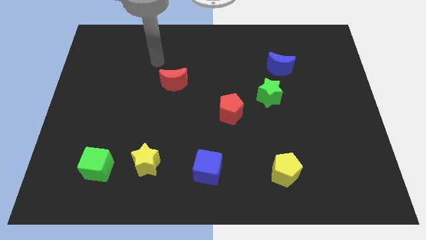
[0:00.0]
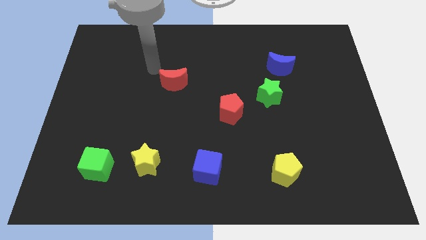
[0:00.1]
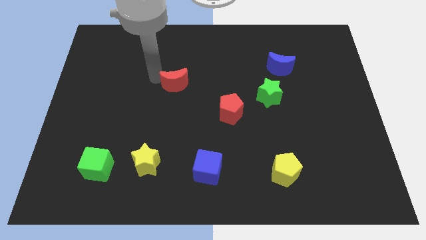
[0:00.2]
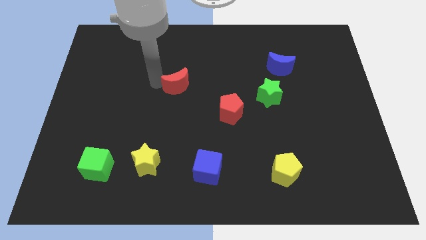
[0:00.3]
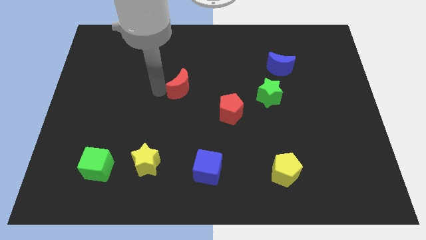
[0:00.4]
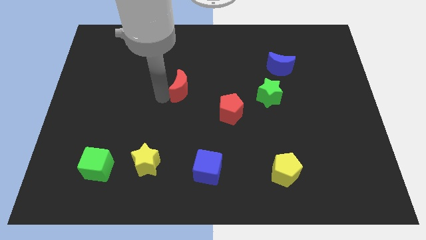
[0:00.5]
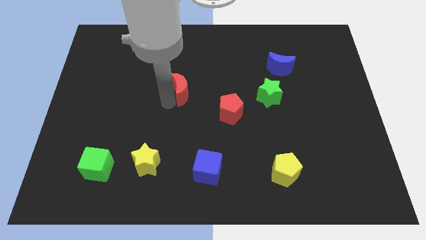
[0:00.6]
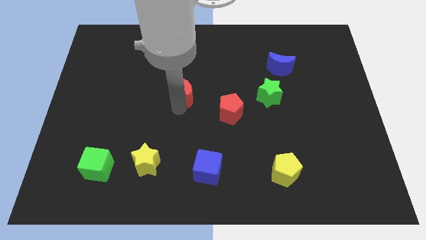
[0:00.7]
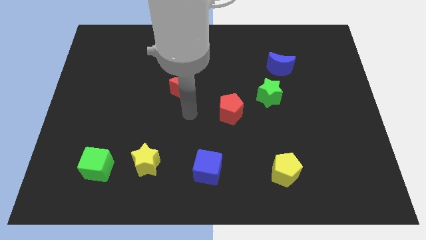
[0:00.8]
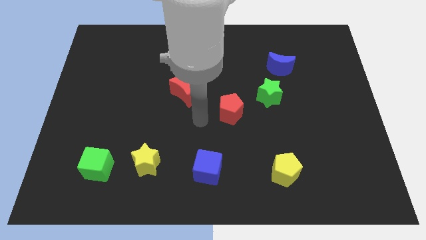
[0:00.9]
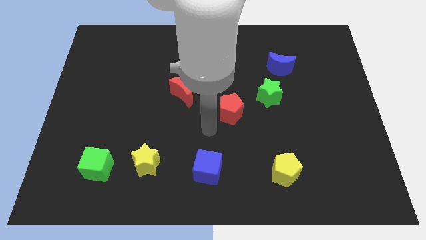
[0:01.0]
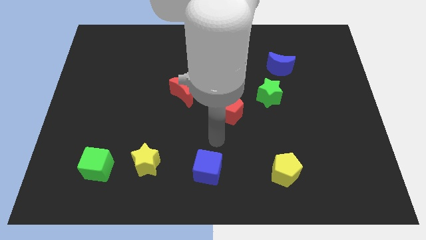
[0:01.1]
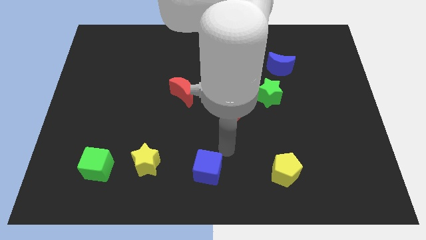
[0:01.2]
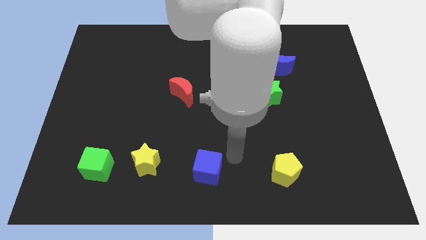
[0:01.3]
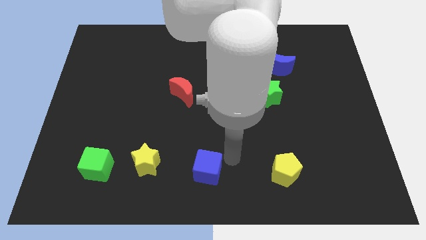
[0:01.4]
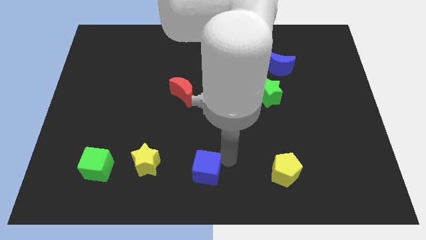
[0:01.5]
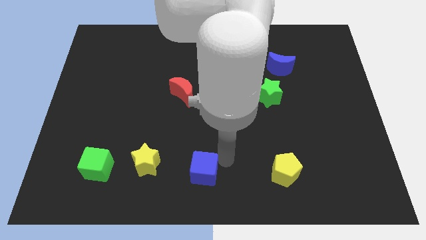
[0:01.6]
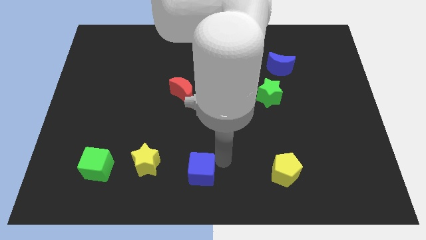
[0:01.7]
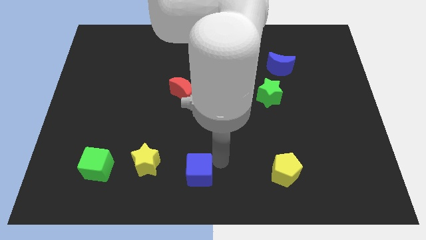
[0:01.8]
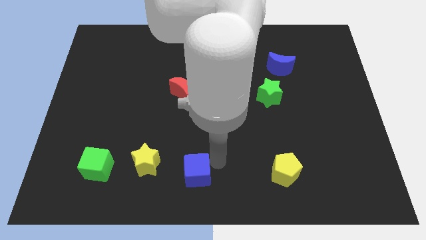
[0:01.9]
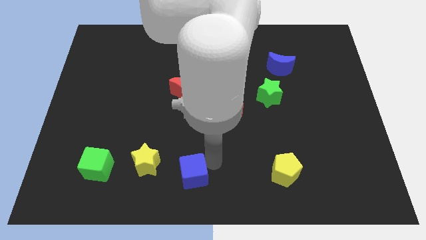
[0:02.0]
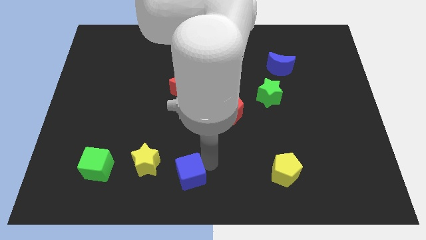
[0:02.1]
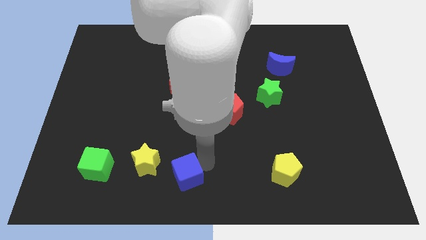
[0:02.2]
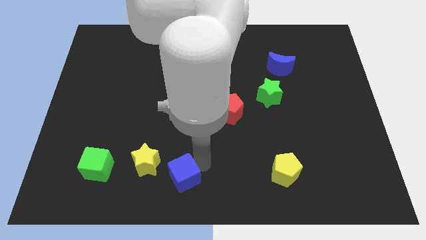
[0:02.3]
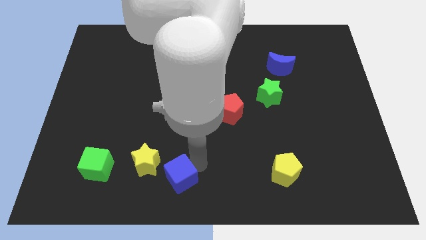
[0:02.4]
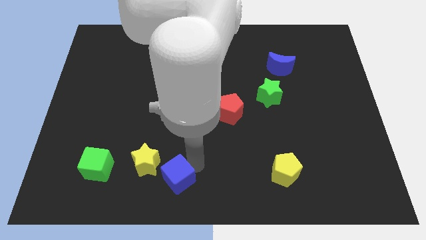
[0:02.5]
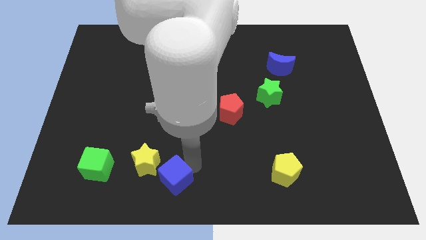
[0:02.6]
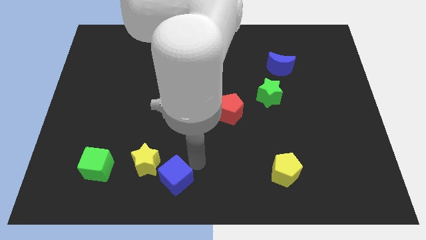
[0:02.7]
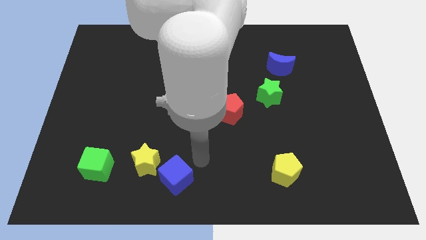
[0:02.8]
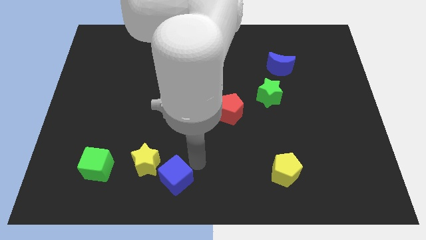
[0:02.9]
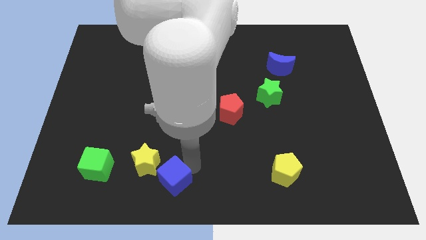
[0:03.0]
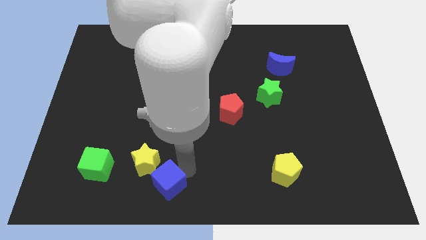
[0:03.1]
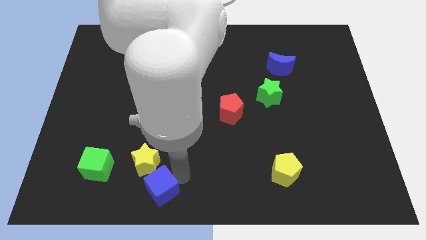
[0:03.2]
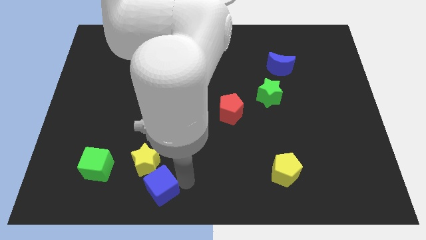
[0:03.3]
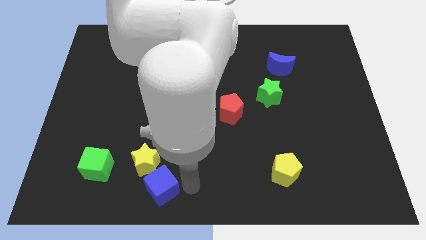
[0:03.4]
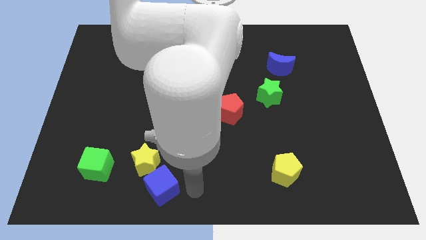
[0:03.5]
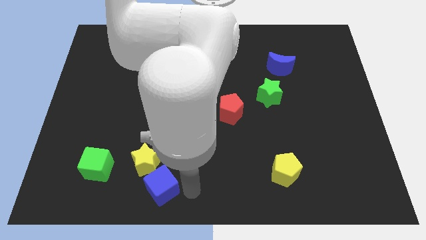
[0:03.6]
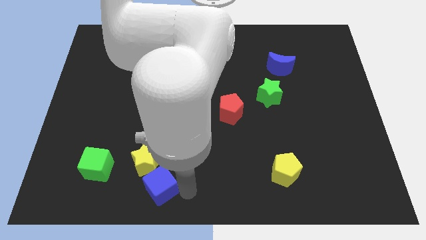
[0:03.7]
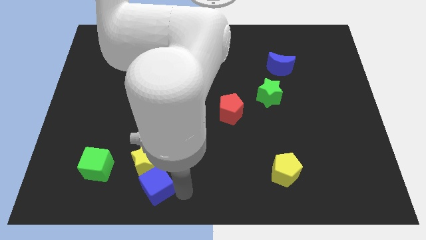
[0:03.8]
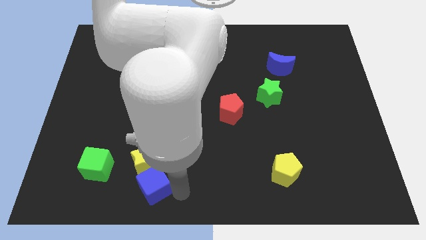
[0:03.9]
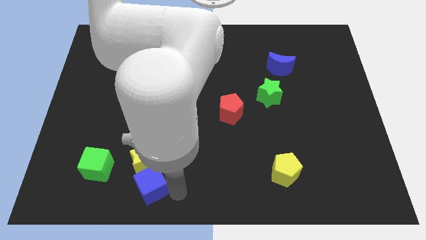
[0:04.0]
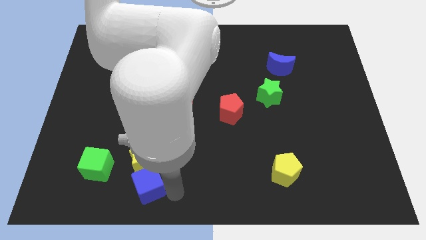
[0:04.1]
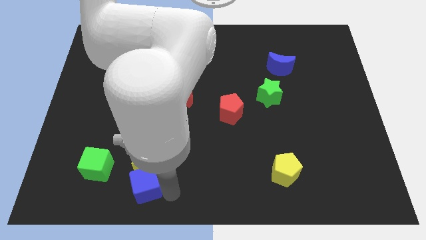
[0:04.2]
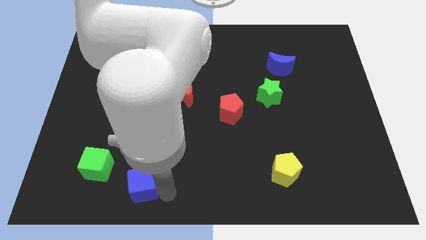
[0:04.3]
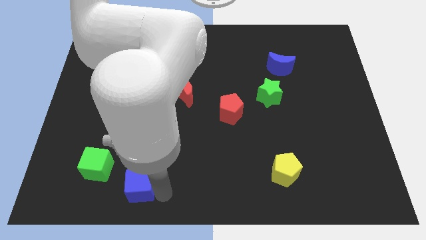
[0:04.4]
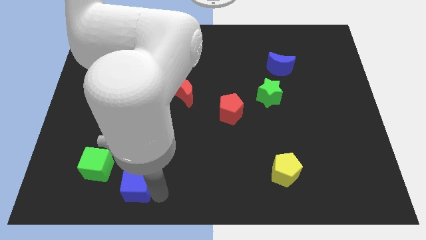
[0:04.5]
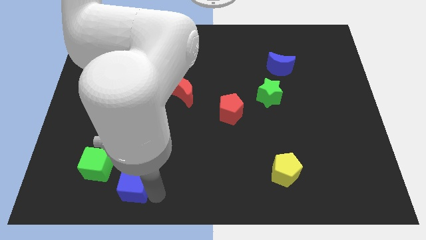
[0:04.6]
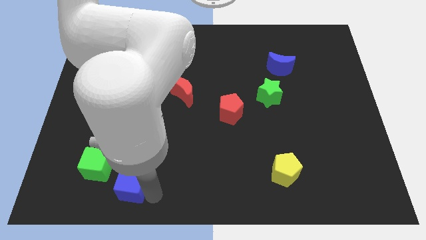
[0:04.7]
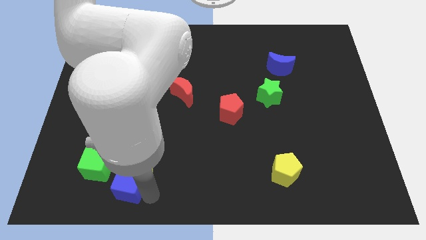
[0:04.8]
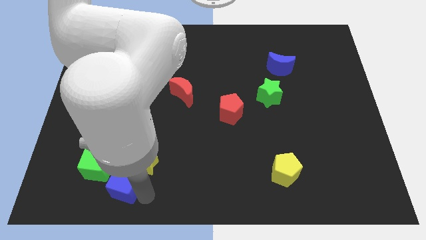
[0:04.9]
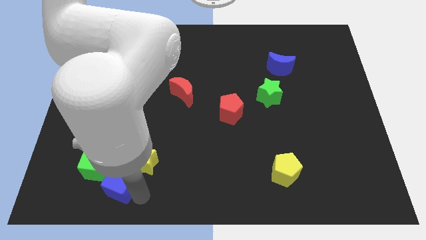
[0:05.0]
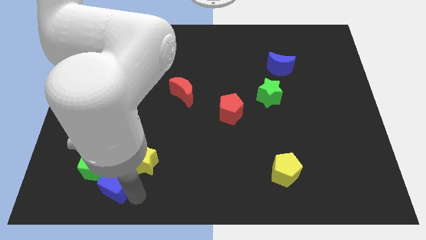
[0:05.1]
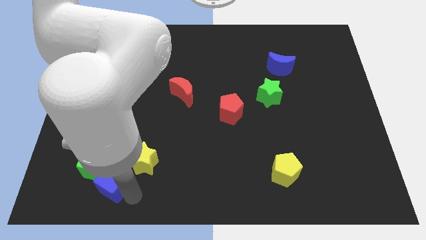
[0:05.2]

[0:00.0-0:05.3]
push the blue cube to the green cube

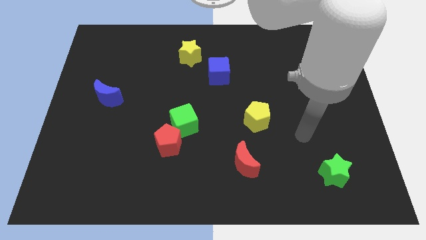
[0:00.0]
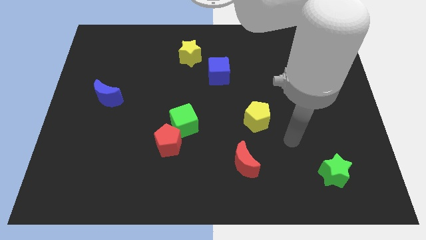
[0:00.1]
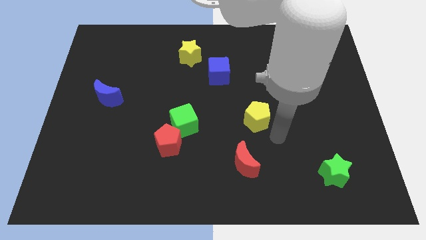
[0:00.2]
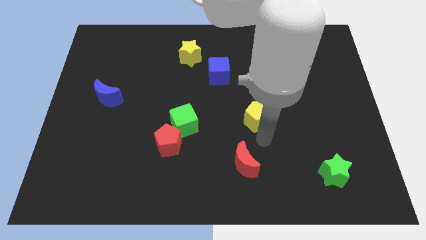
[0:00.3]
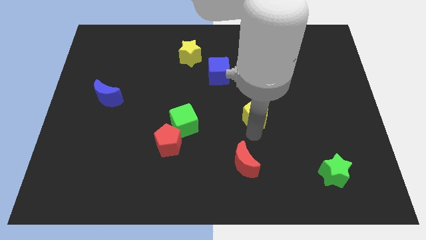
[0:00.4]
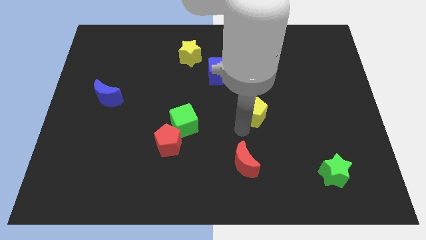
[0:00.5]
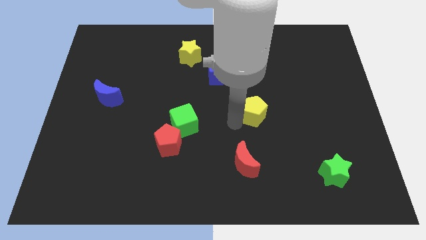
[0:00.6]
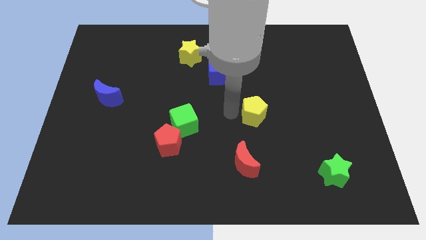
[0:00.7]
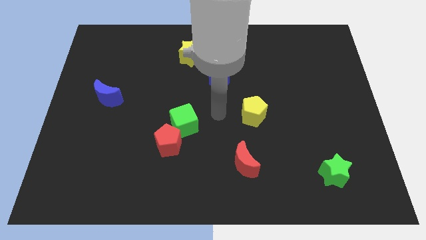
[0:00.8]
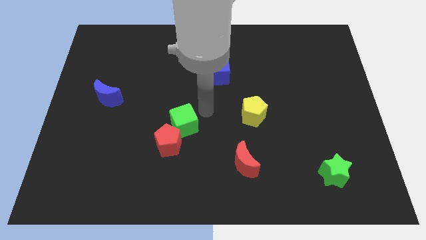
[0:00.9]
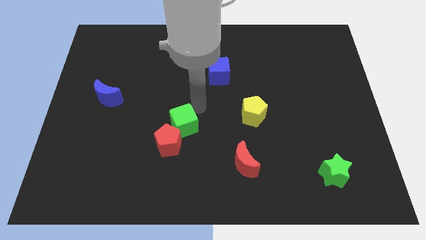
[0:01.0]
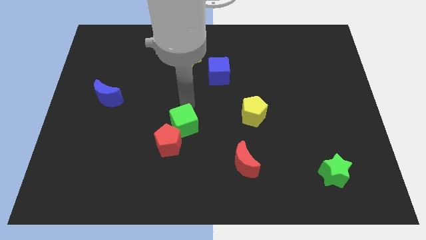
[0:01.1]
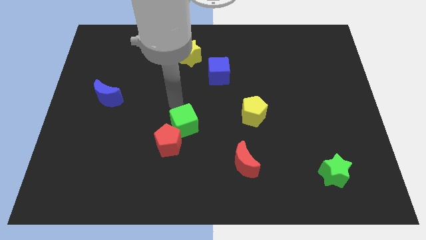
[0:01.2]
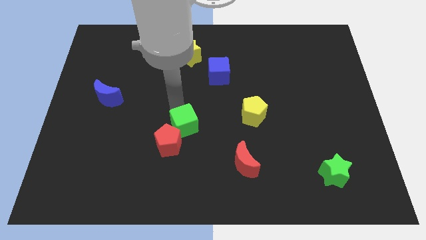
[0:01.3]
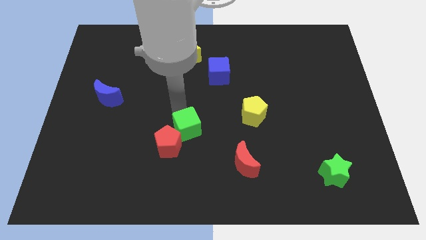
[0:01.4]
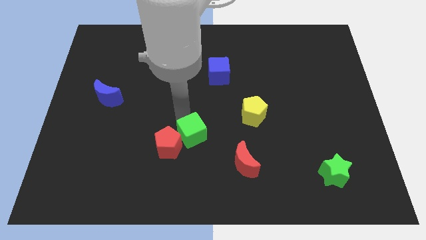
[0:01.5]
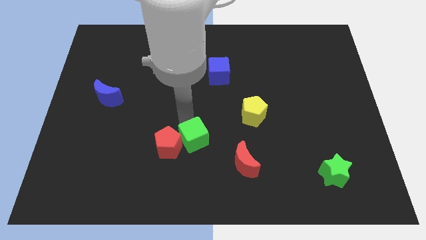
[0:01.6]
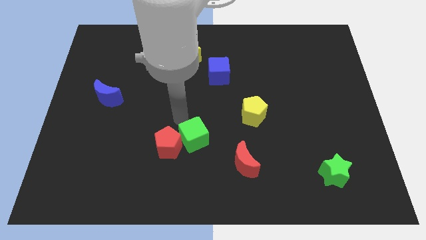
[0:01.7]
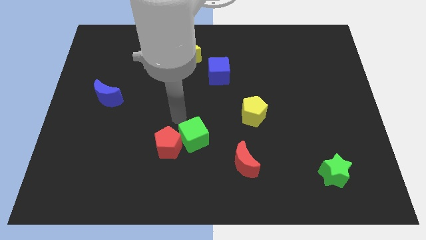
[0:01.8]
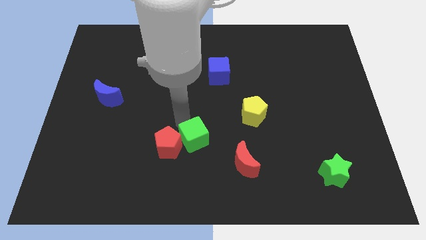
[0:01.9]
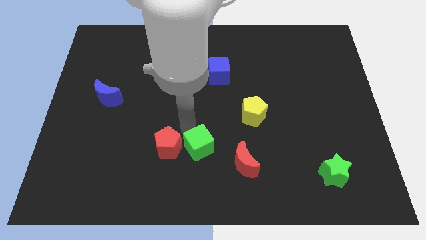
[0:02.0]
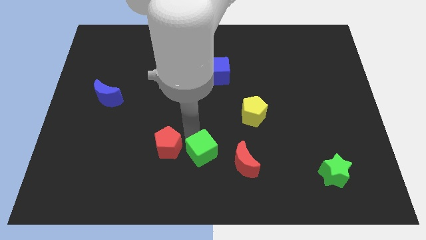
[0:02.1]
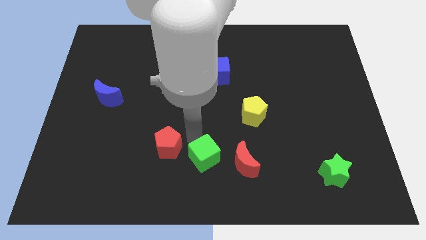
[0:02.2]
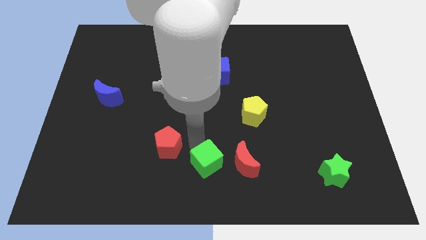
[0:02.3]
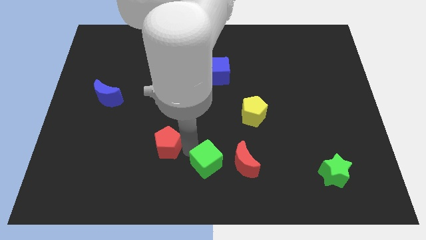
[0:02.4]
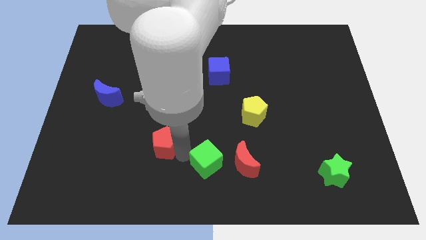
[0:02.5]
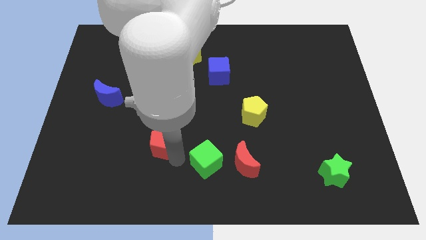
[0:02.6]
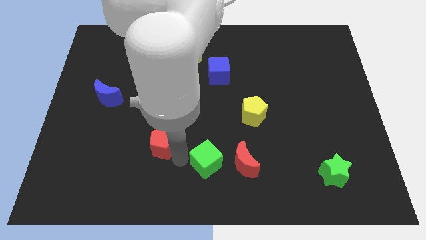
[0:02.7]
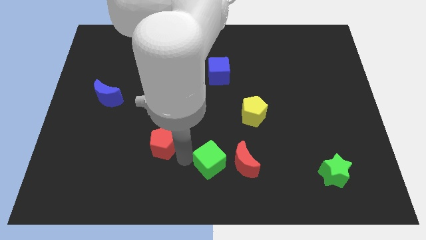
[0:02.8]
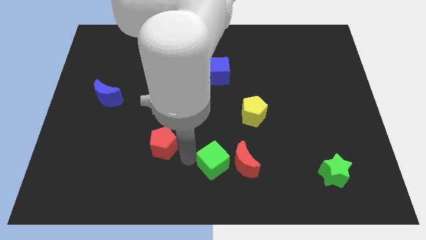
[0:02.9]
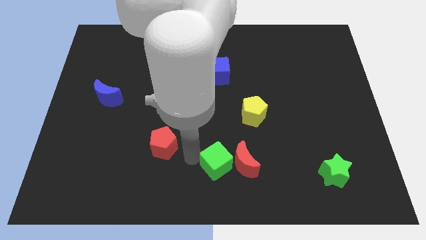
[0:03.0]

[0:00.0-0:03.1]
put the green cube close to the red moon
